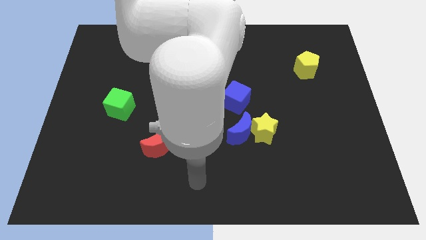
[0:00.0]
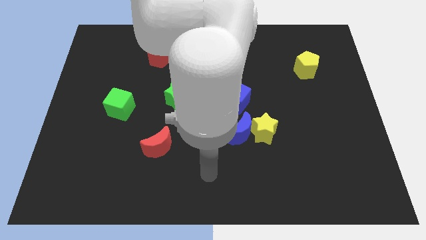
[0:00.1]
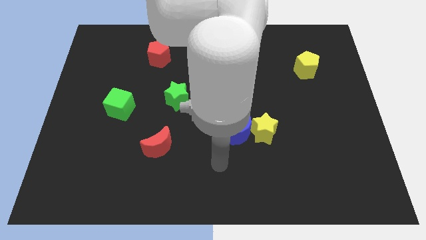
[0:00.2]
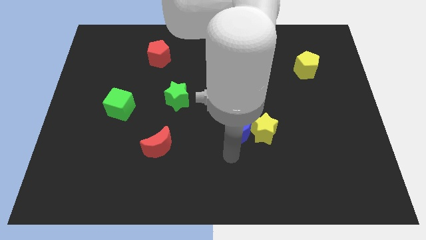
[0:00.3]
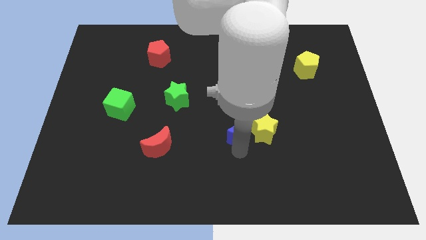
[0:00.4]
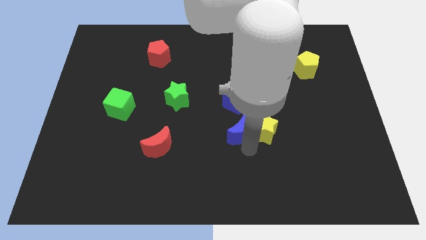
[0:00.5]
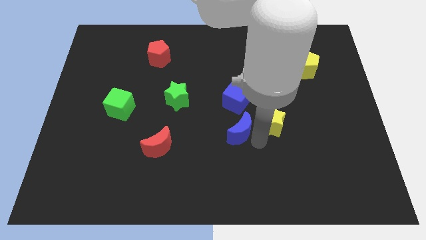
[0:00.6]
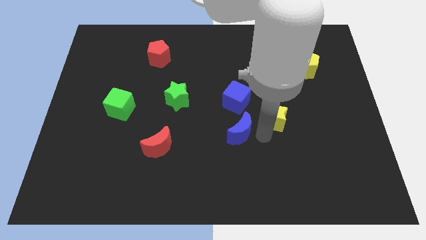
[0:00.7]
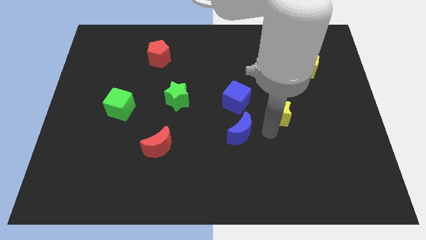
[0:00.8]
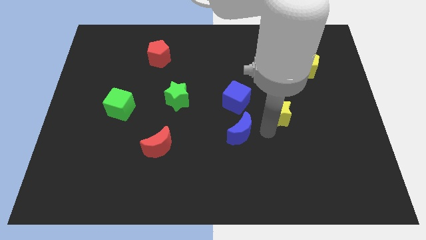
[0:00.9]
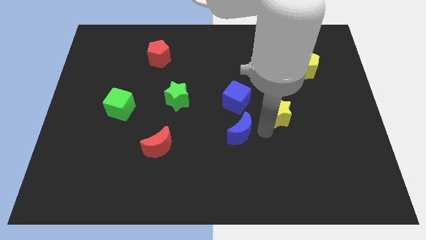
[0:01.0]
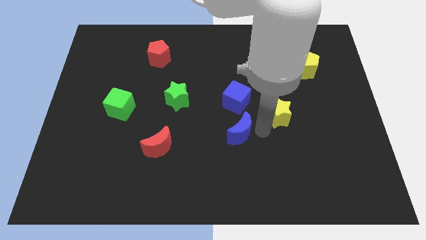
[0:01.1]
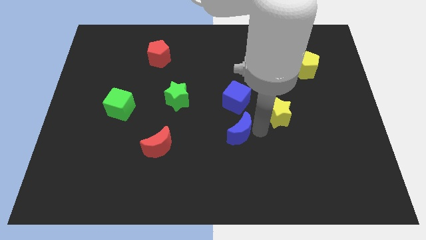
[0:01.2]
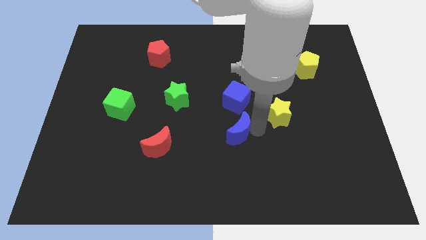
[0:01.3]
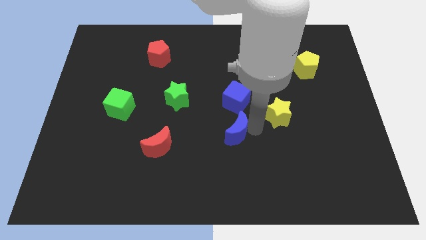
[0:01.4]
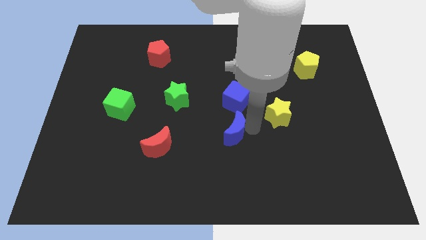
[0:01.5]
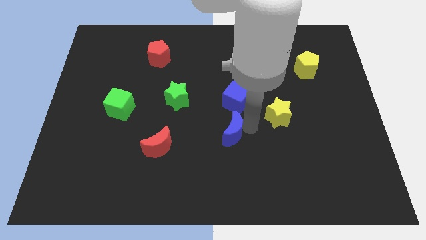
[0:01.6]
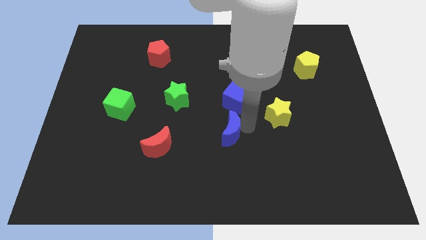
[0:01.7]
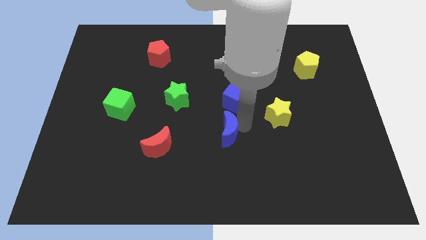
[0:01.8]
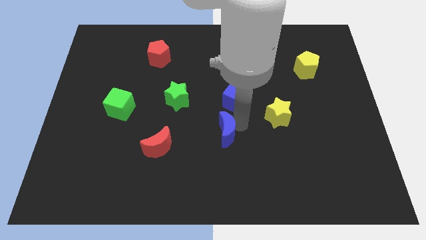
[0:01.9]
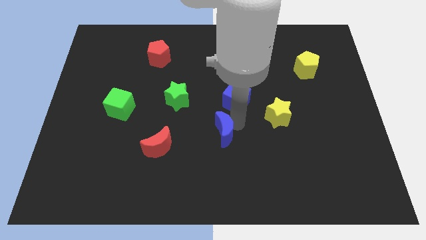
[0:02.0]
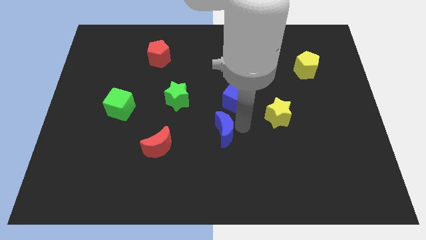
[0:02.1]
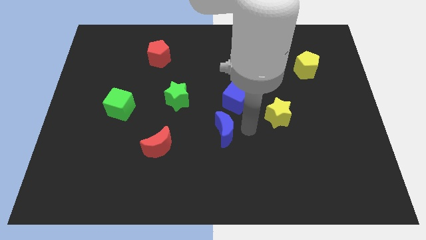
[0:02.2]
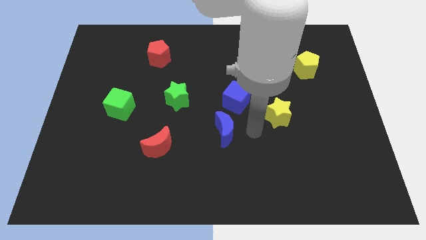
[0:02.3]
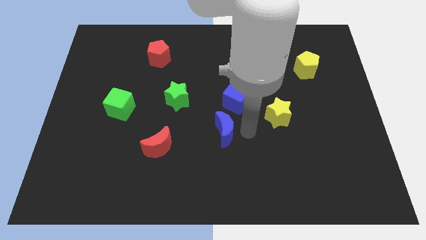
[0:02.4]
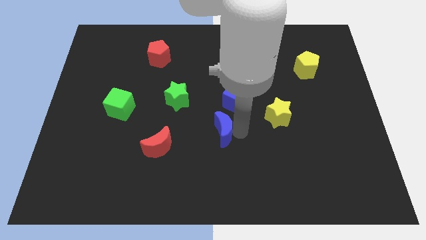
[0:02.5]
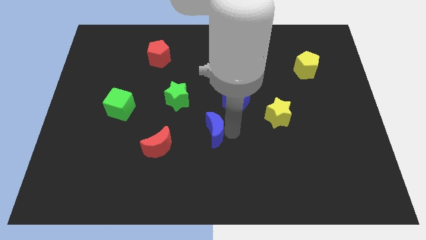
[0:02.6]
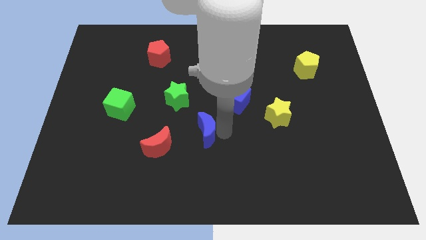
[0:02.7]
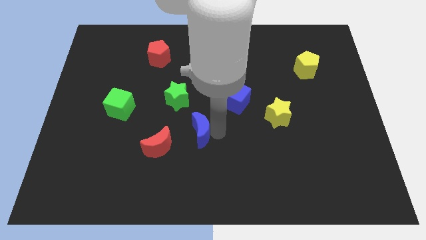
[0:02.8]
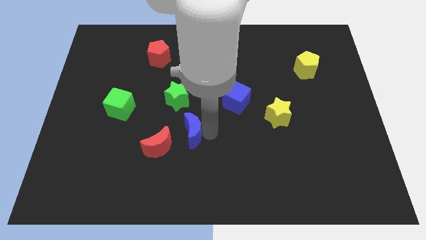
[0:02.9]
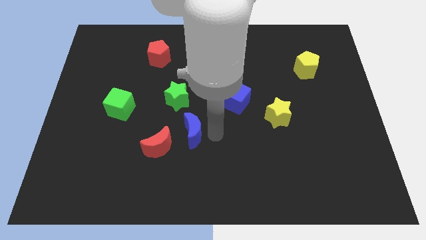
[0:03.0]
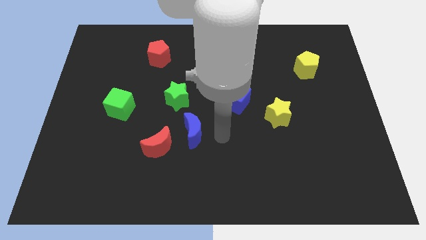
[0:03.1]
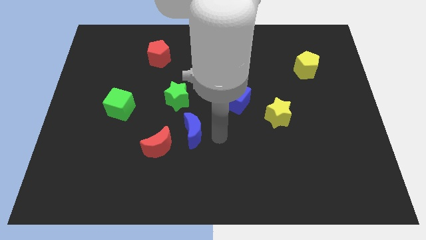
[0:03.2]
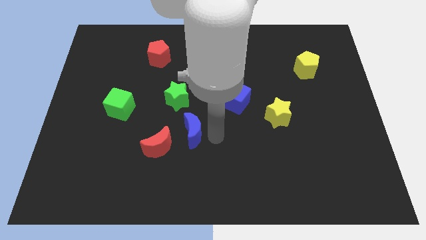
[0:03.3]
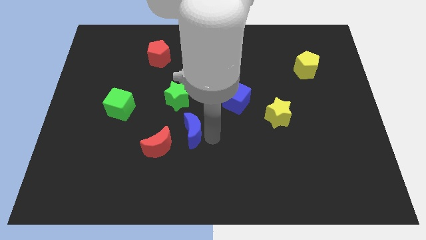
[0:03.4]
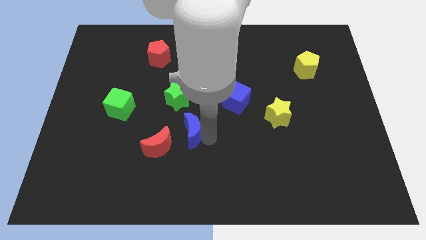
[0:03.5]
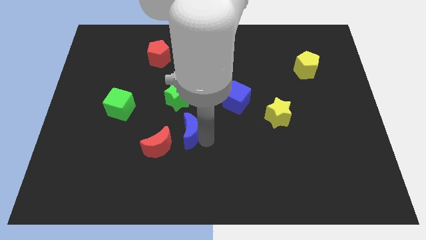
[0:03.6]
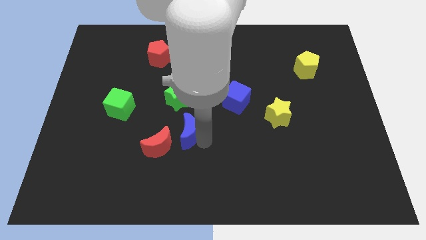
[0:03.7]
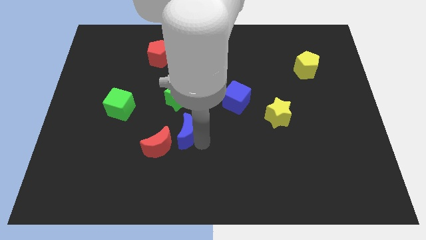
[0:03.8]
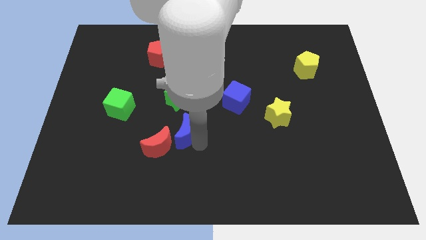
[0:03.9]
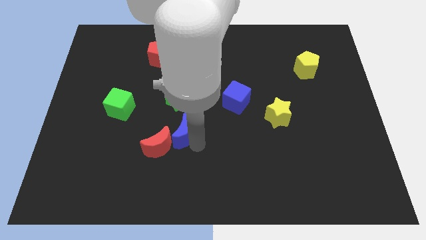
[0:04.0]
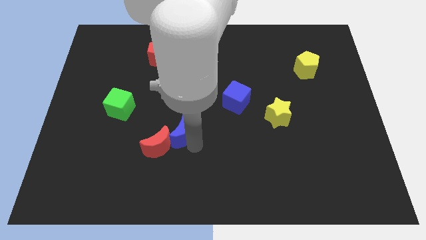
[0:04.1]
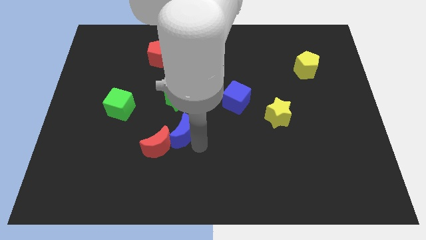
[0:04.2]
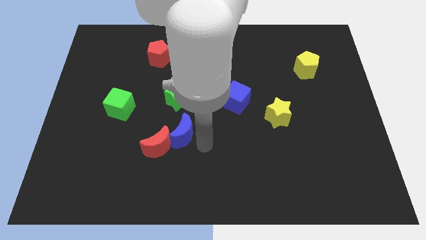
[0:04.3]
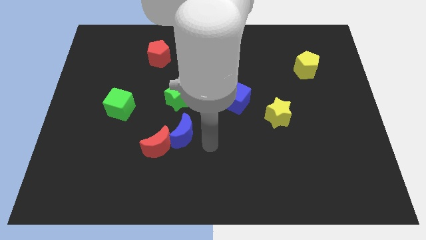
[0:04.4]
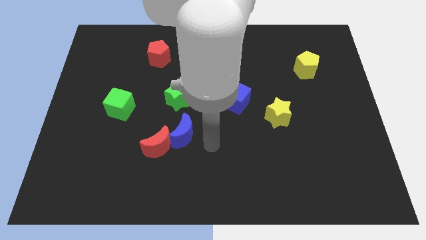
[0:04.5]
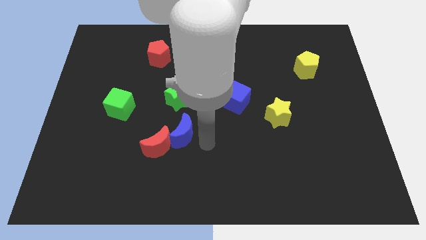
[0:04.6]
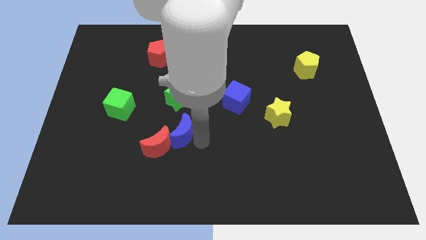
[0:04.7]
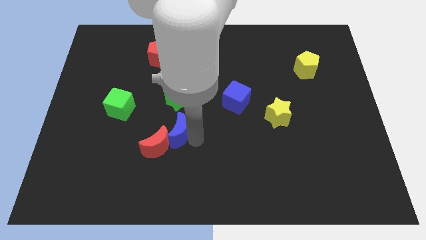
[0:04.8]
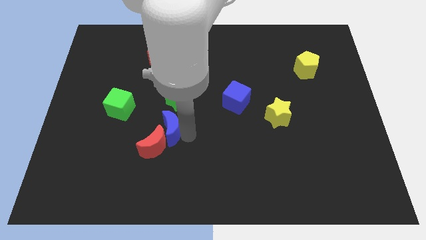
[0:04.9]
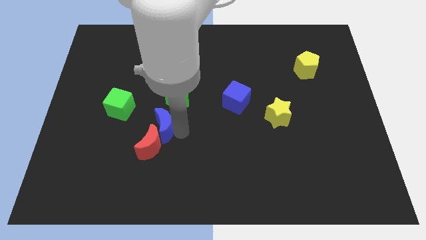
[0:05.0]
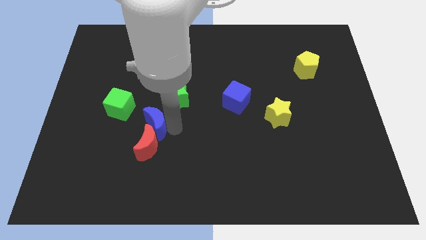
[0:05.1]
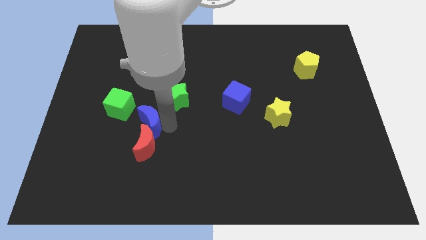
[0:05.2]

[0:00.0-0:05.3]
move the blue moon to the left

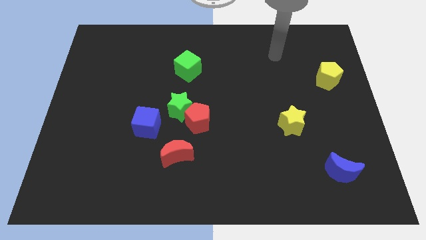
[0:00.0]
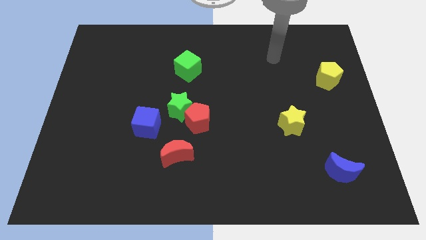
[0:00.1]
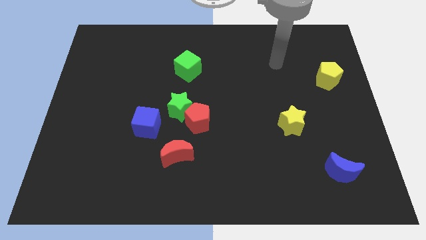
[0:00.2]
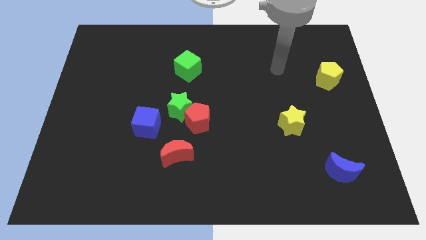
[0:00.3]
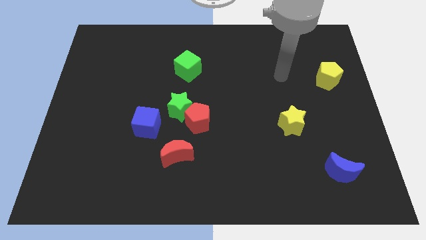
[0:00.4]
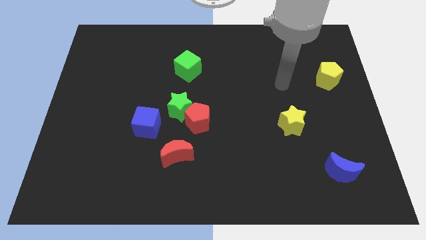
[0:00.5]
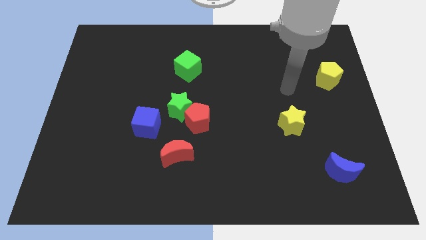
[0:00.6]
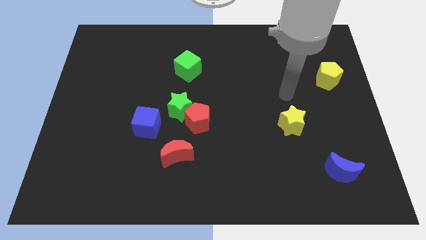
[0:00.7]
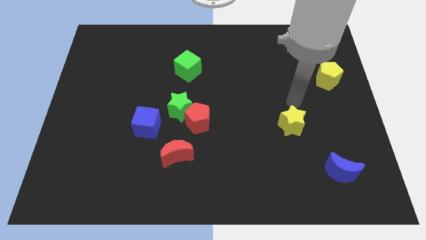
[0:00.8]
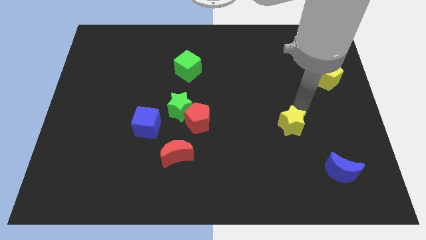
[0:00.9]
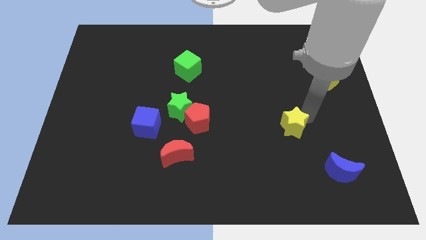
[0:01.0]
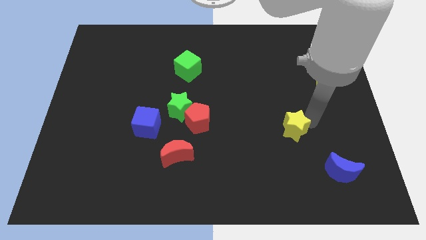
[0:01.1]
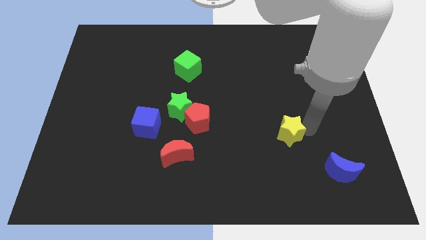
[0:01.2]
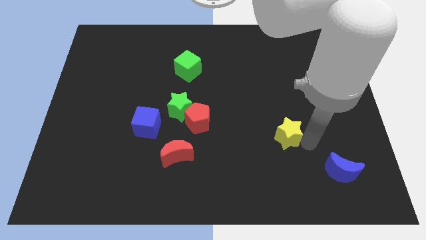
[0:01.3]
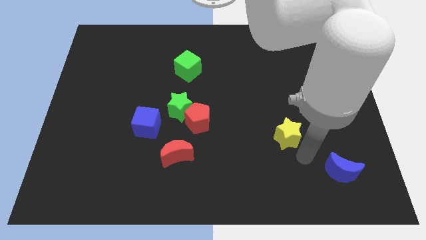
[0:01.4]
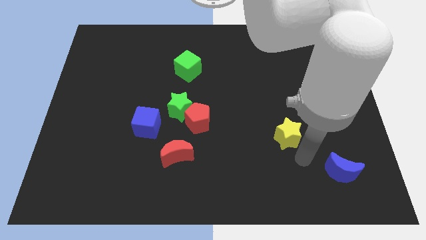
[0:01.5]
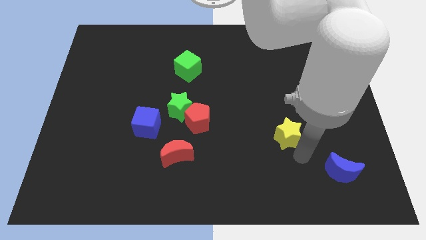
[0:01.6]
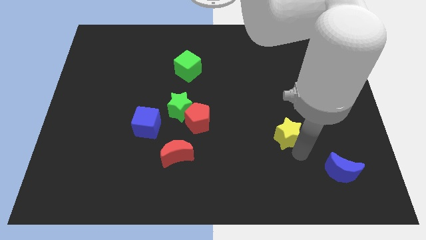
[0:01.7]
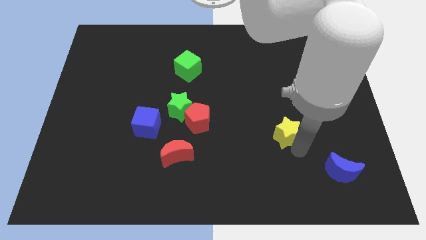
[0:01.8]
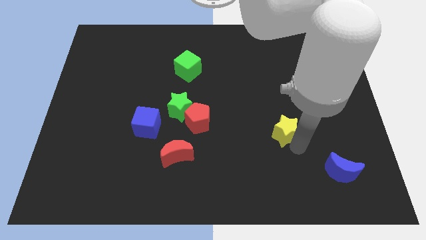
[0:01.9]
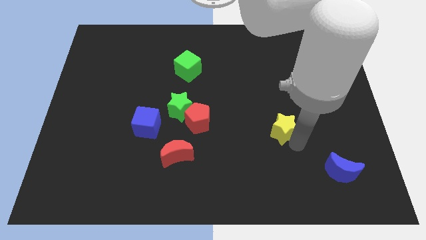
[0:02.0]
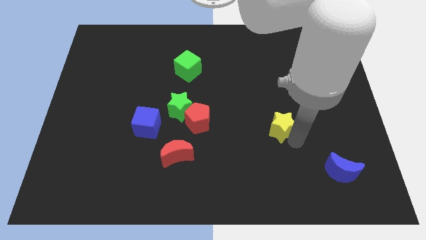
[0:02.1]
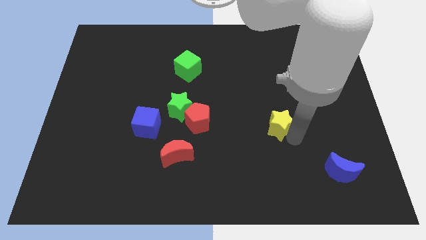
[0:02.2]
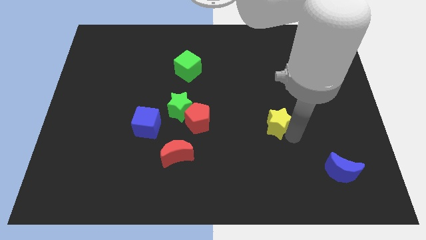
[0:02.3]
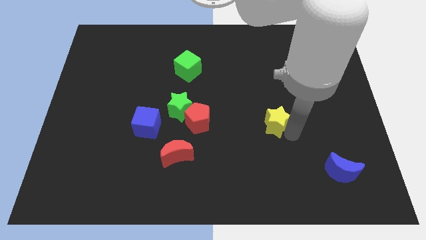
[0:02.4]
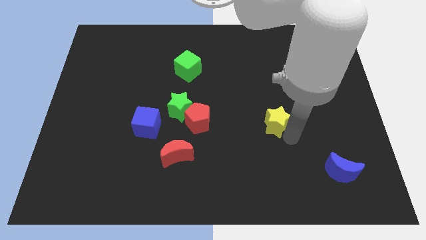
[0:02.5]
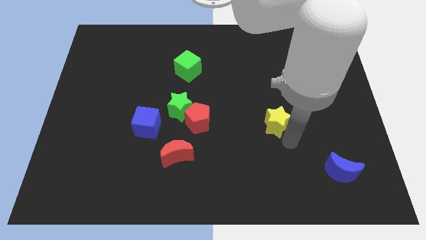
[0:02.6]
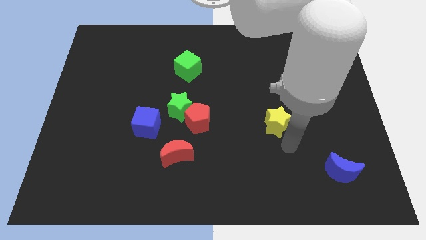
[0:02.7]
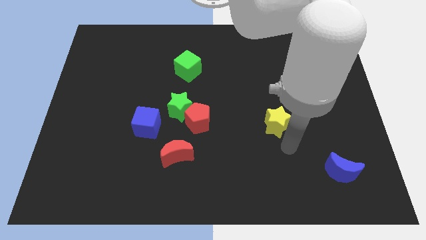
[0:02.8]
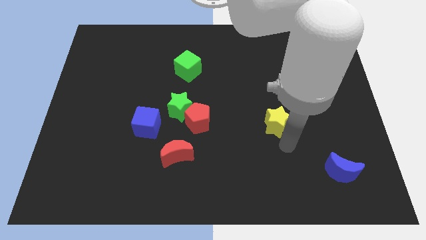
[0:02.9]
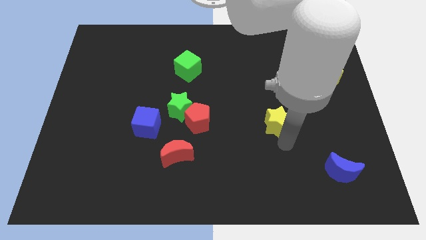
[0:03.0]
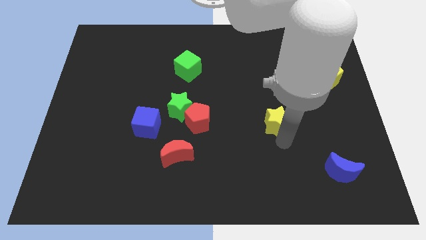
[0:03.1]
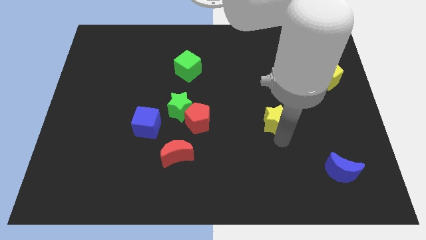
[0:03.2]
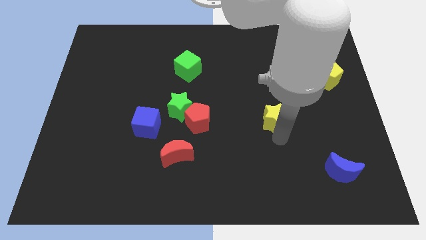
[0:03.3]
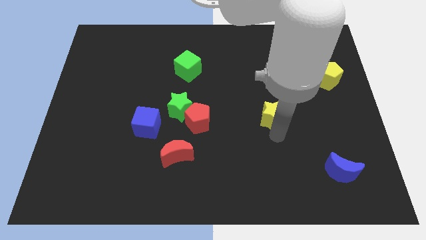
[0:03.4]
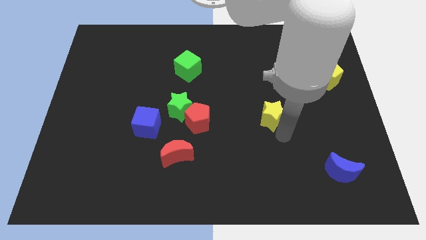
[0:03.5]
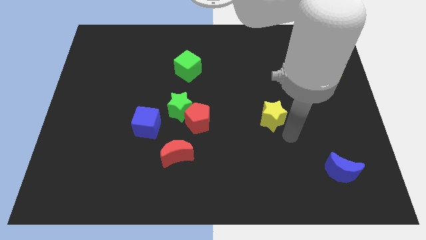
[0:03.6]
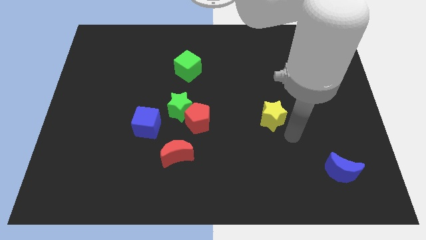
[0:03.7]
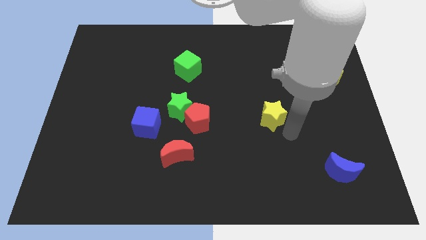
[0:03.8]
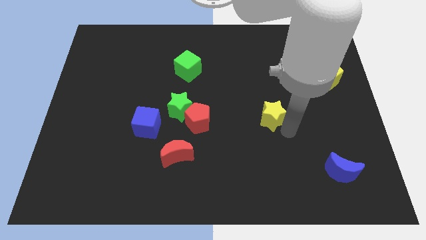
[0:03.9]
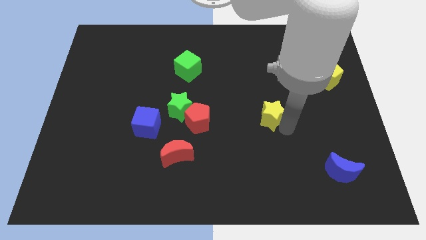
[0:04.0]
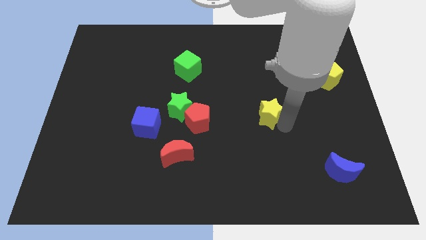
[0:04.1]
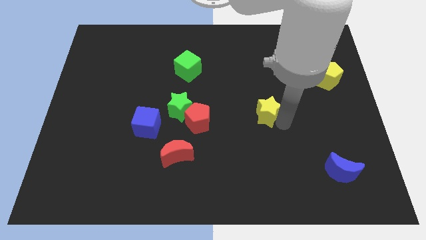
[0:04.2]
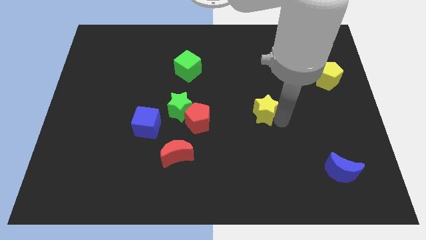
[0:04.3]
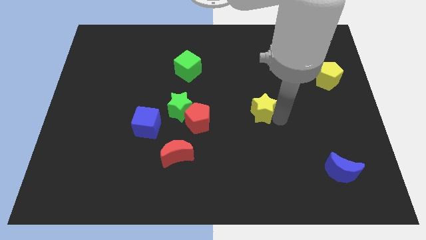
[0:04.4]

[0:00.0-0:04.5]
slightly push the yellow star diagonally upwards and to the left
